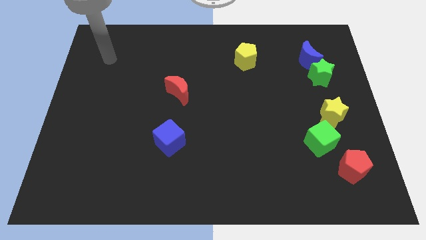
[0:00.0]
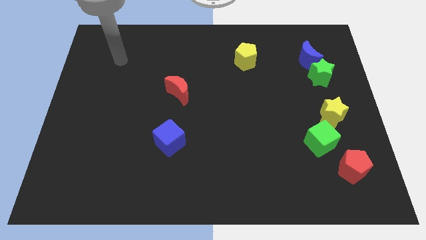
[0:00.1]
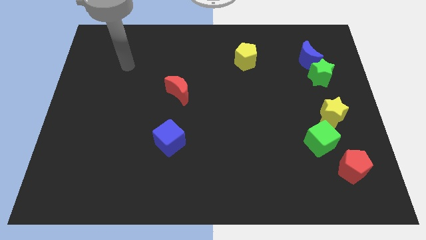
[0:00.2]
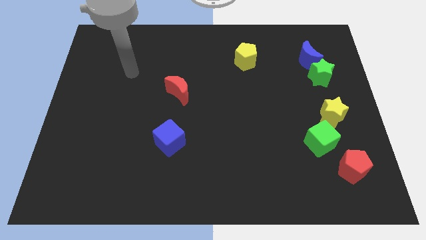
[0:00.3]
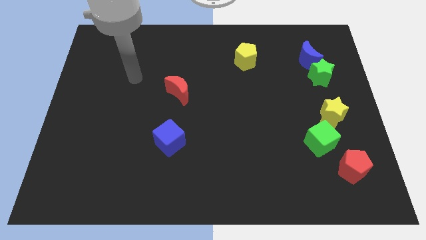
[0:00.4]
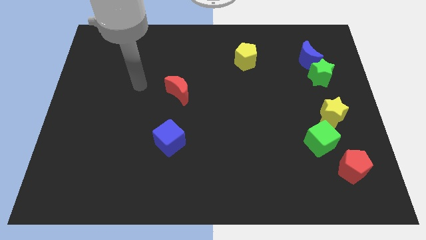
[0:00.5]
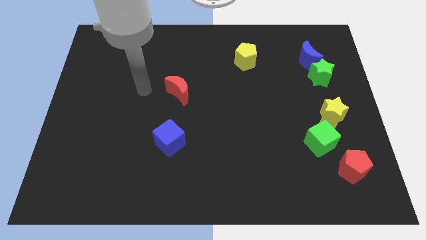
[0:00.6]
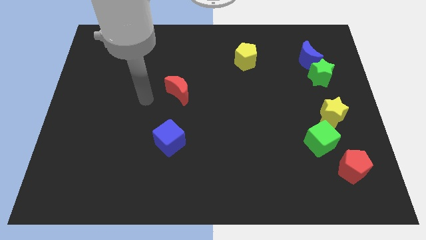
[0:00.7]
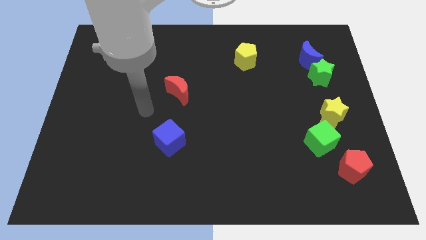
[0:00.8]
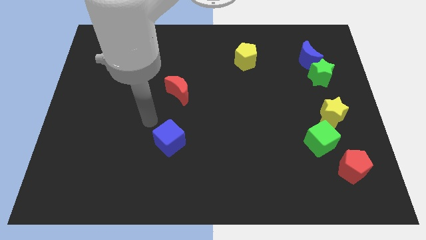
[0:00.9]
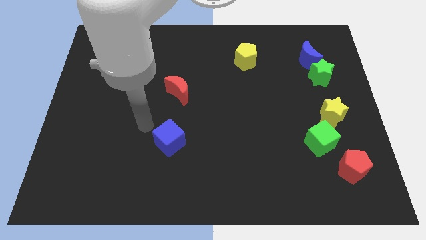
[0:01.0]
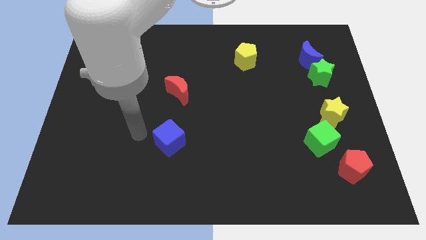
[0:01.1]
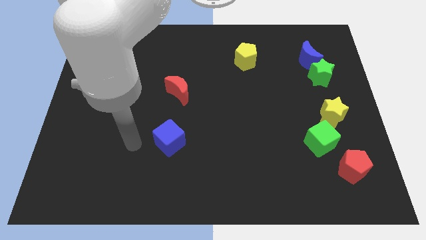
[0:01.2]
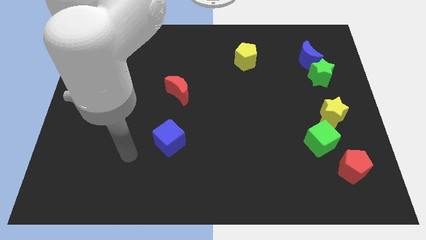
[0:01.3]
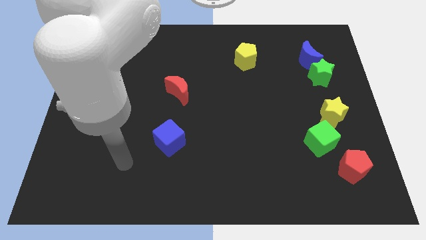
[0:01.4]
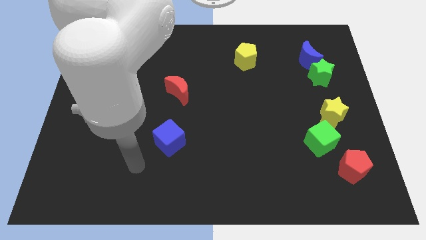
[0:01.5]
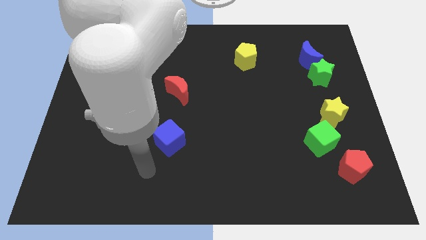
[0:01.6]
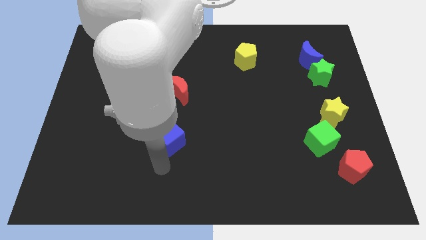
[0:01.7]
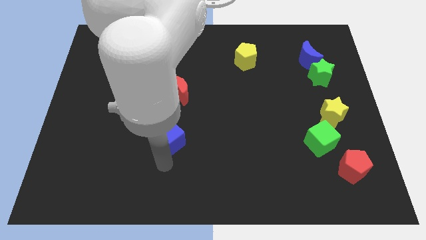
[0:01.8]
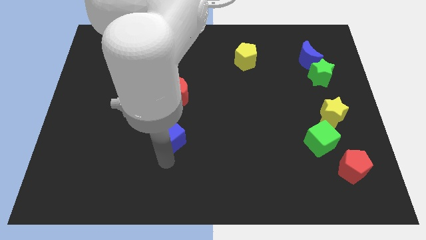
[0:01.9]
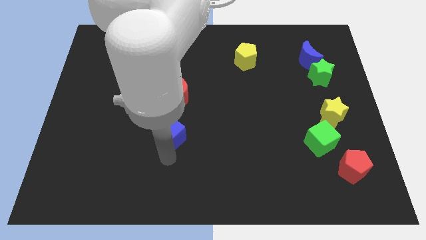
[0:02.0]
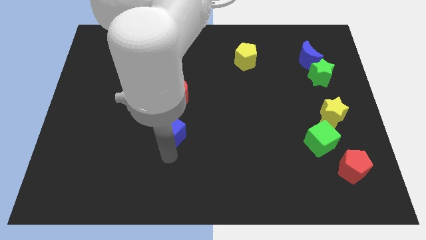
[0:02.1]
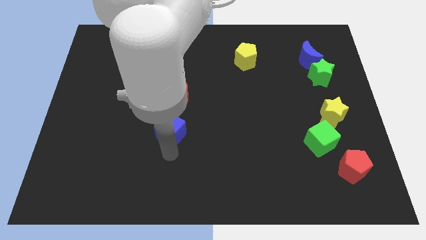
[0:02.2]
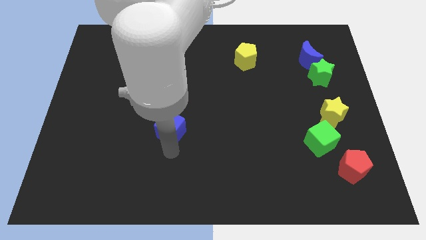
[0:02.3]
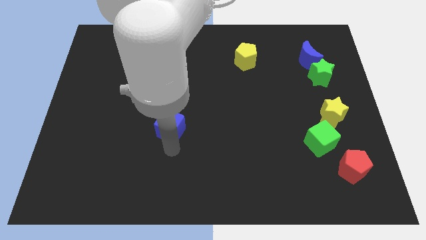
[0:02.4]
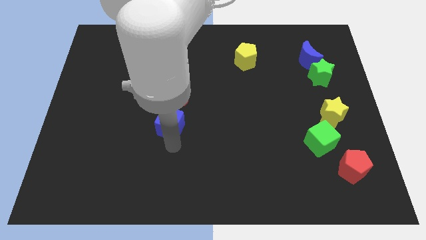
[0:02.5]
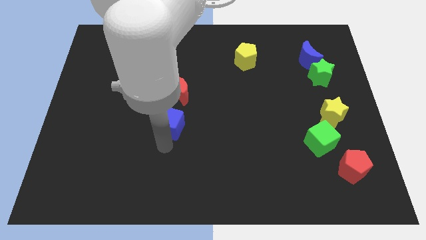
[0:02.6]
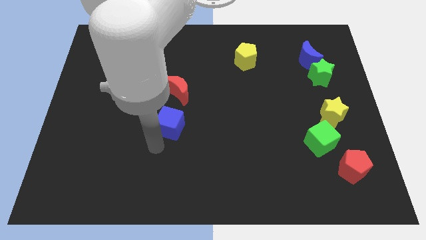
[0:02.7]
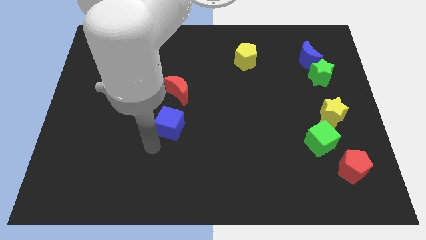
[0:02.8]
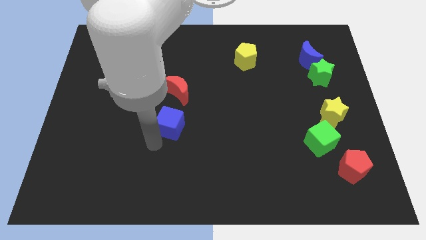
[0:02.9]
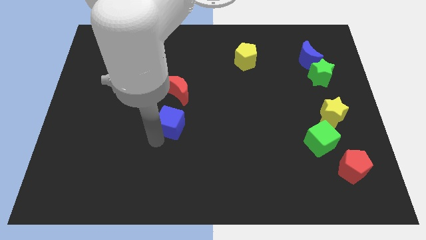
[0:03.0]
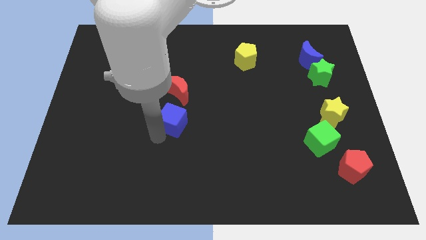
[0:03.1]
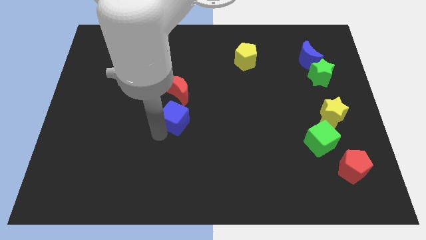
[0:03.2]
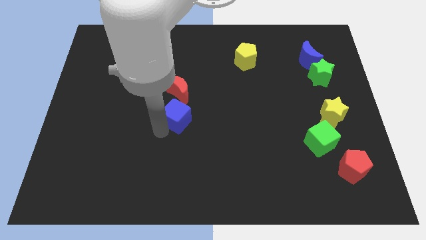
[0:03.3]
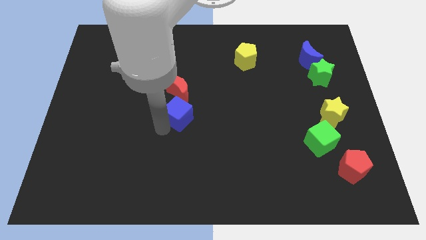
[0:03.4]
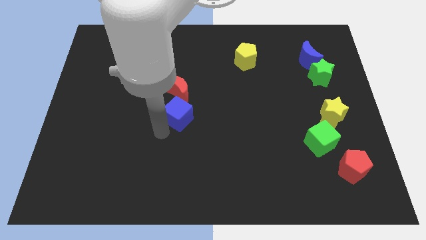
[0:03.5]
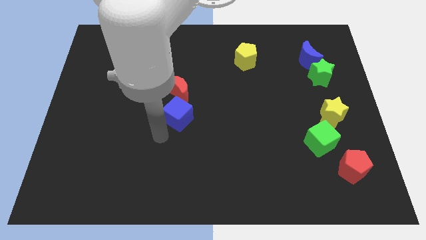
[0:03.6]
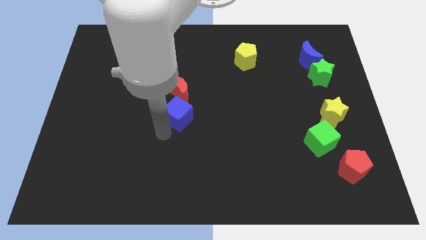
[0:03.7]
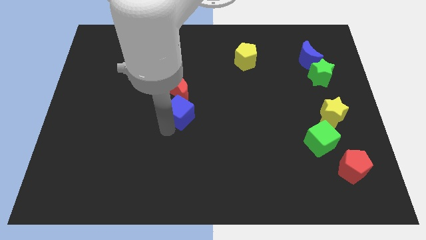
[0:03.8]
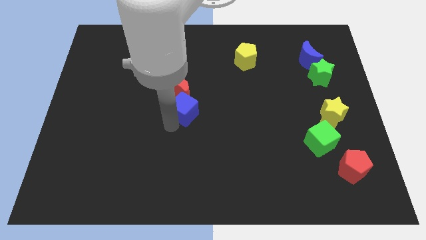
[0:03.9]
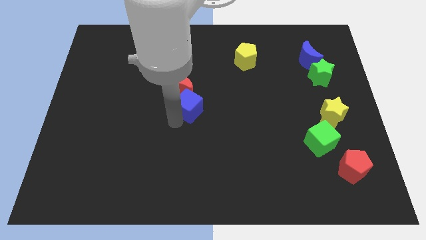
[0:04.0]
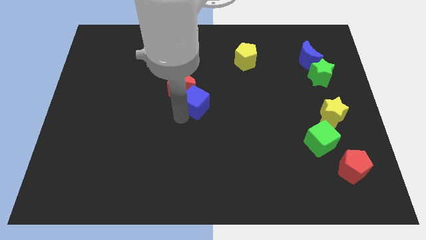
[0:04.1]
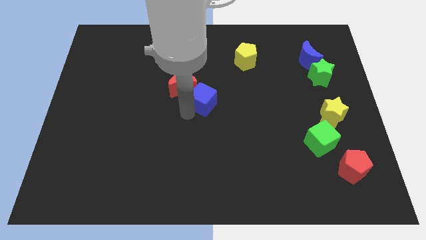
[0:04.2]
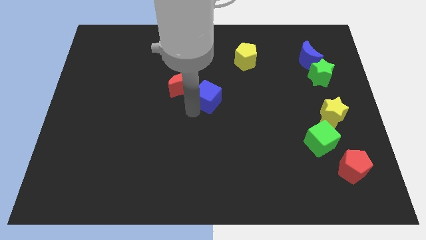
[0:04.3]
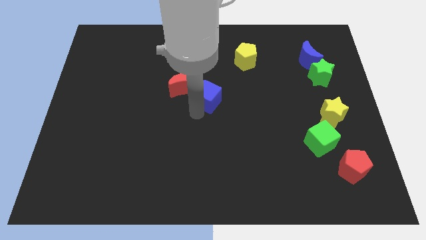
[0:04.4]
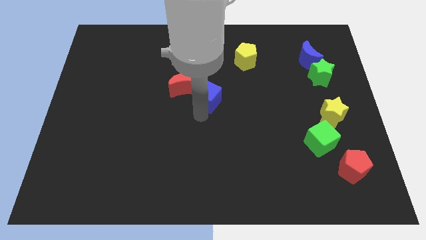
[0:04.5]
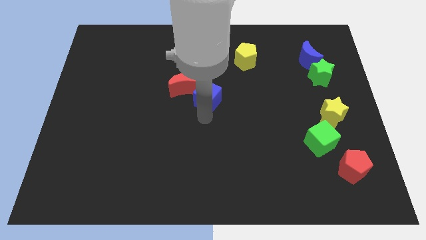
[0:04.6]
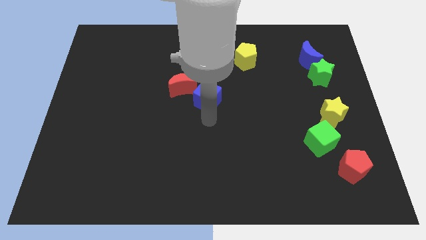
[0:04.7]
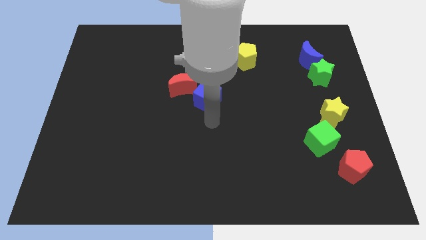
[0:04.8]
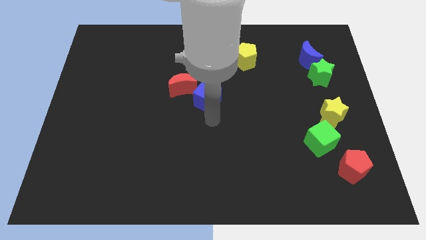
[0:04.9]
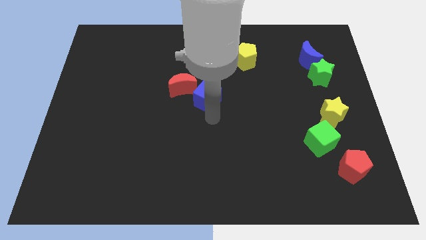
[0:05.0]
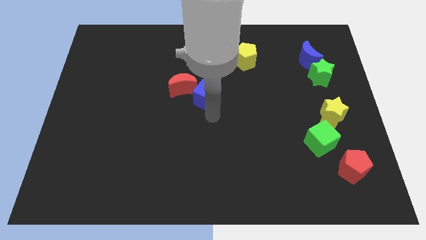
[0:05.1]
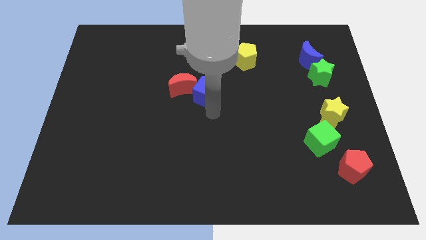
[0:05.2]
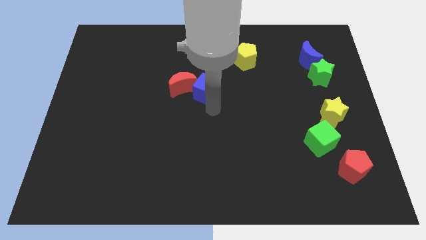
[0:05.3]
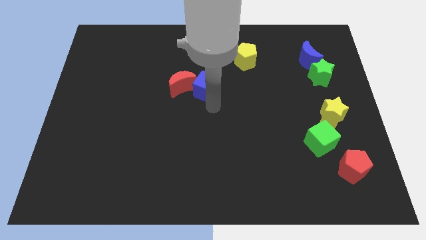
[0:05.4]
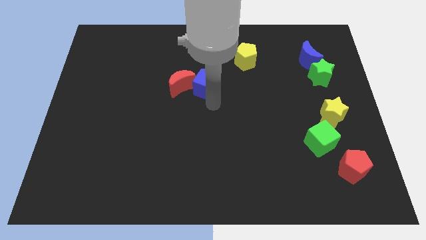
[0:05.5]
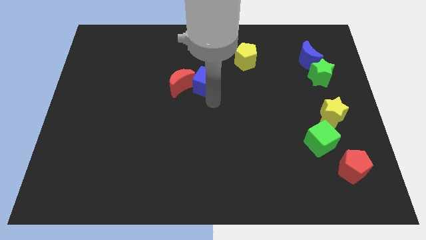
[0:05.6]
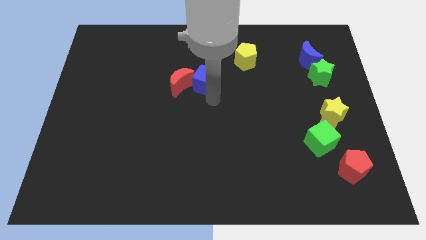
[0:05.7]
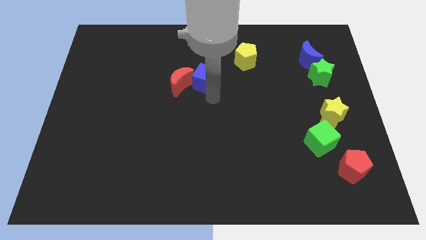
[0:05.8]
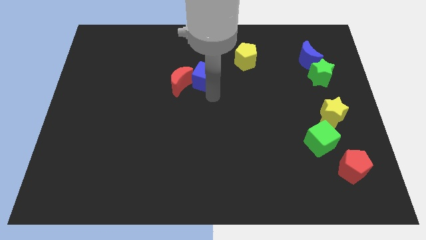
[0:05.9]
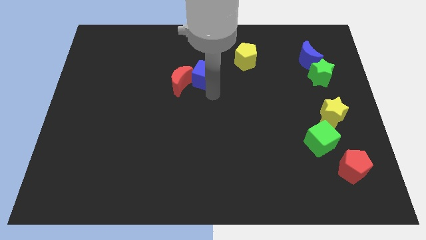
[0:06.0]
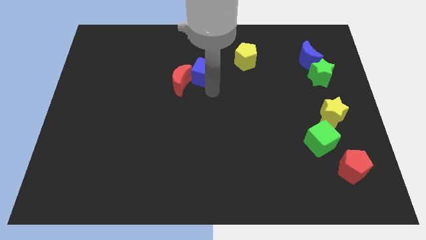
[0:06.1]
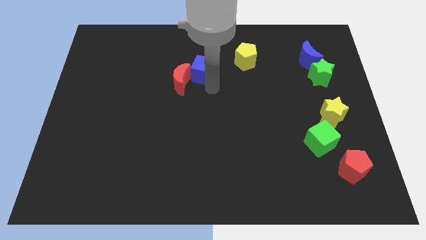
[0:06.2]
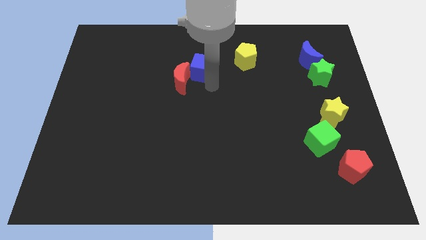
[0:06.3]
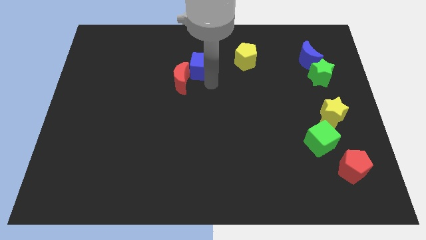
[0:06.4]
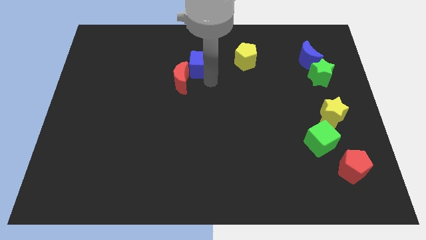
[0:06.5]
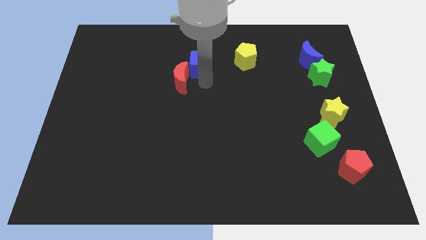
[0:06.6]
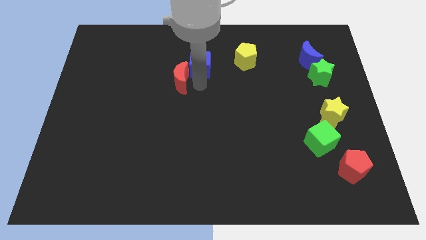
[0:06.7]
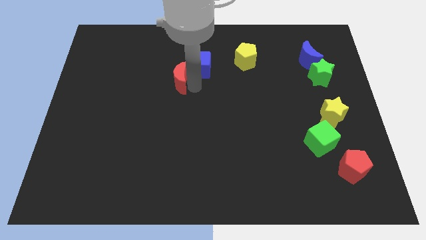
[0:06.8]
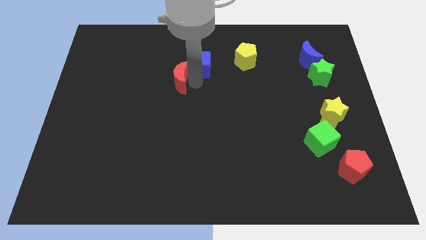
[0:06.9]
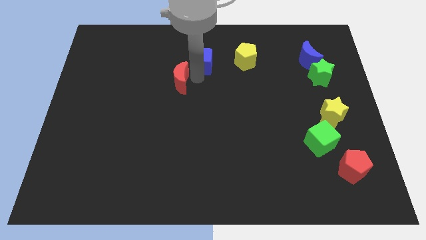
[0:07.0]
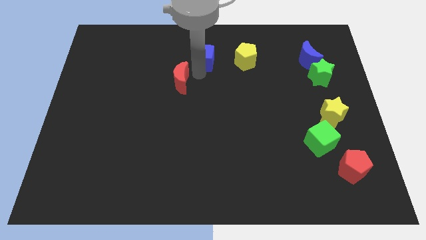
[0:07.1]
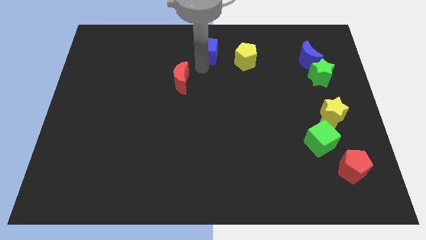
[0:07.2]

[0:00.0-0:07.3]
move the blue cube to the top side

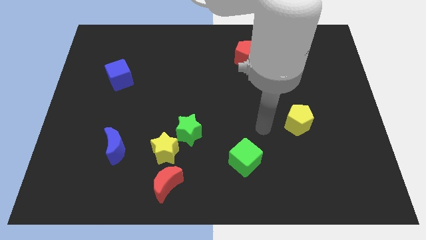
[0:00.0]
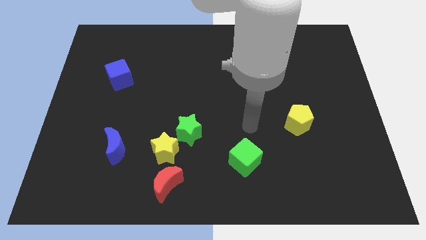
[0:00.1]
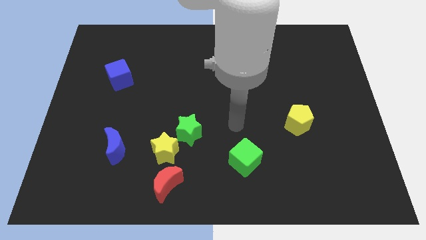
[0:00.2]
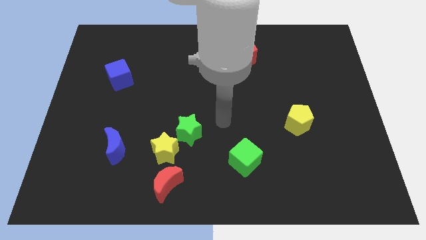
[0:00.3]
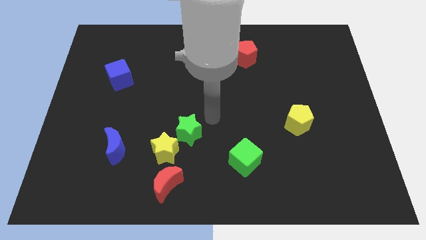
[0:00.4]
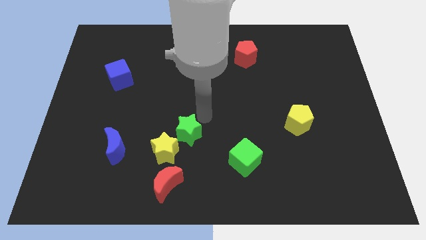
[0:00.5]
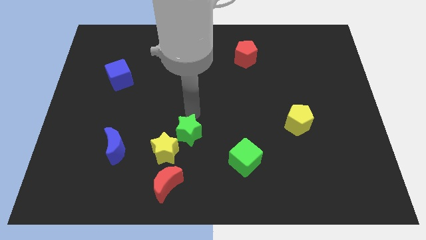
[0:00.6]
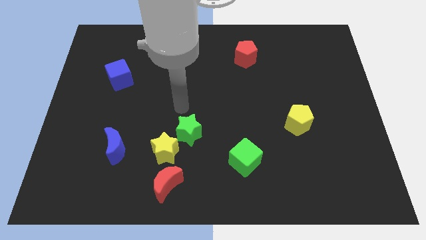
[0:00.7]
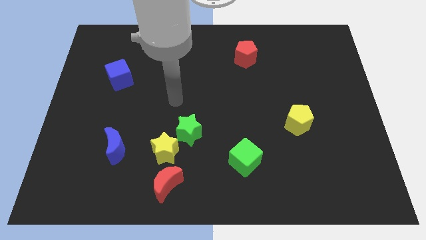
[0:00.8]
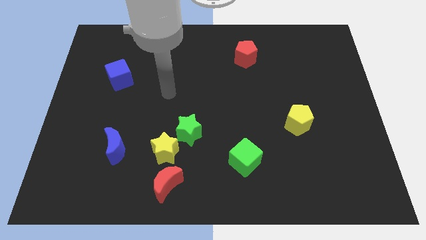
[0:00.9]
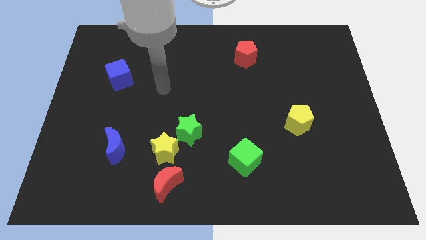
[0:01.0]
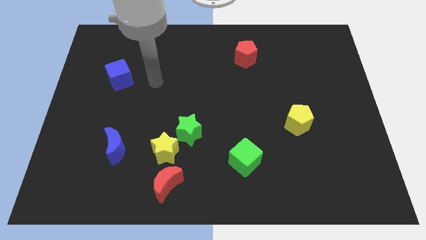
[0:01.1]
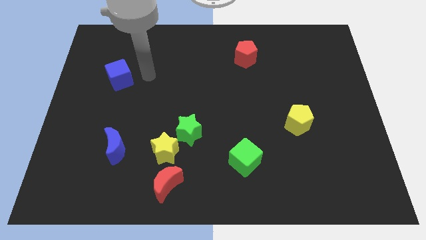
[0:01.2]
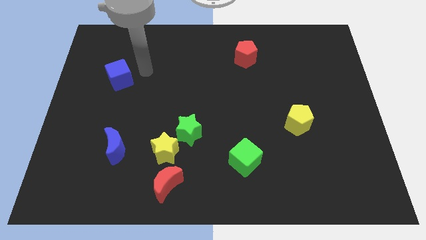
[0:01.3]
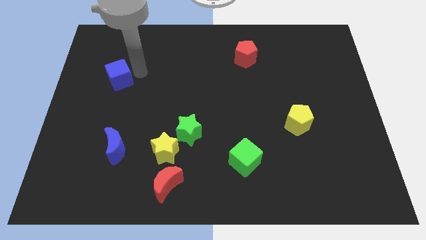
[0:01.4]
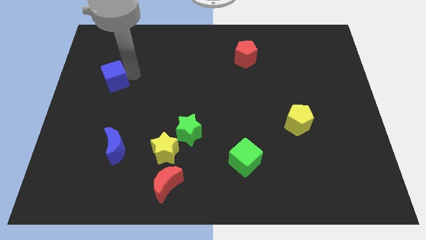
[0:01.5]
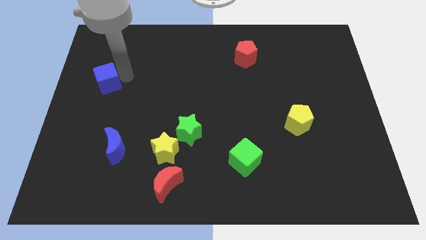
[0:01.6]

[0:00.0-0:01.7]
push the blue cube to the left side of the board
